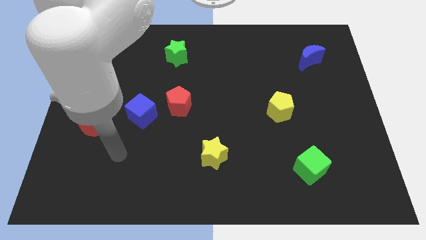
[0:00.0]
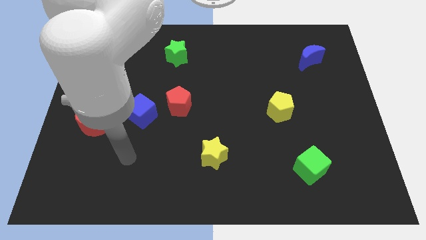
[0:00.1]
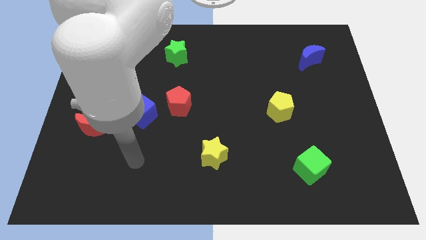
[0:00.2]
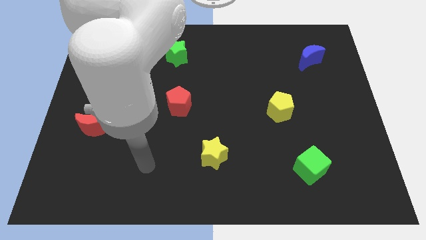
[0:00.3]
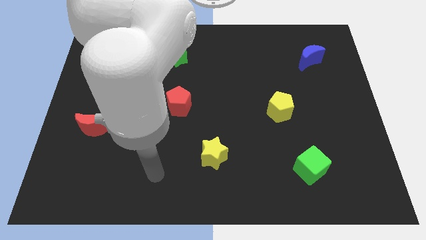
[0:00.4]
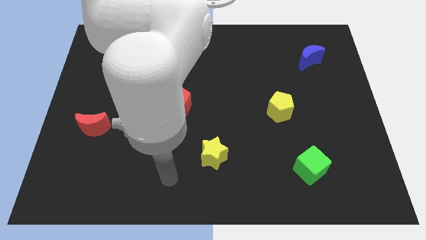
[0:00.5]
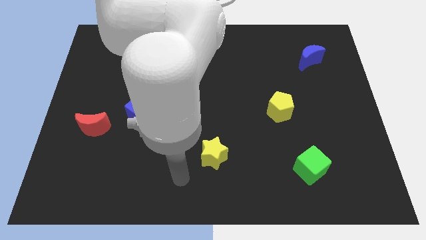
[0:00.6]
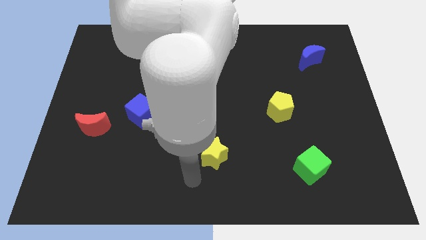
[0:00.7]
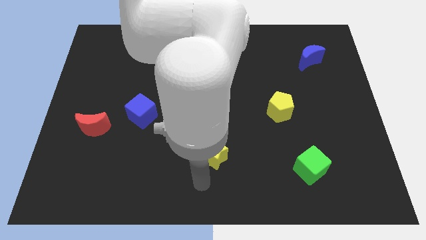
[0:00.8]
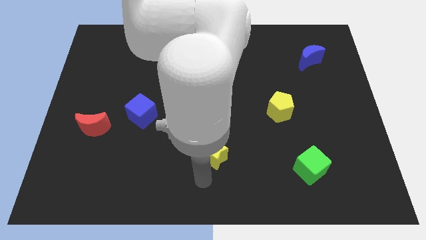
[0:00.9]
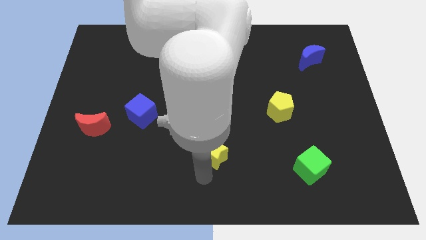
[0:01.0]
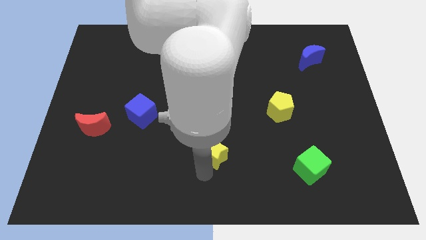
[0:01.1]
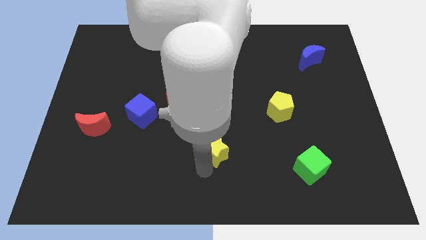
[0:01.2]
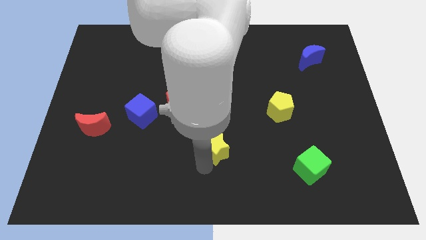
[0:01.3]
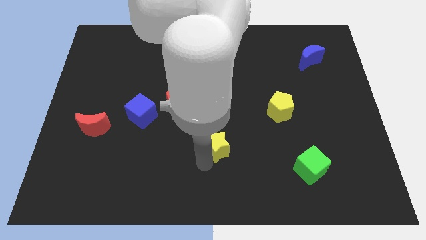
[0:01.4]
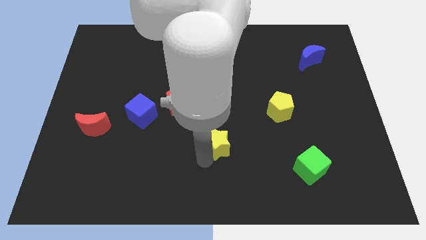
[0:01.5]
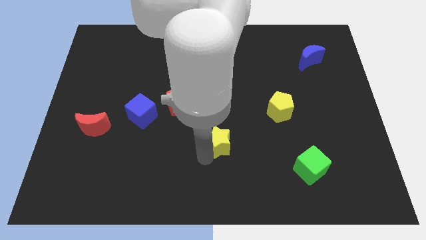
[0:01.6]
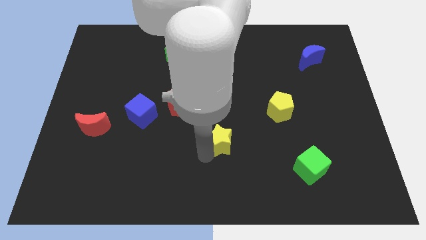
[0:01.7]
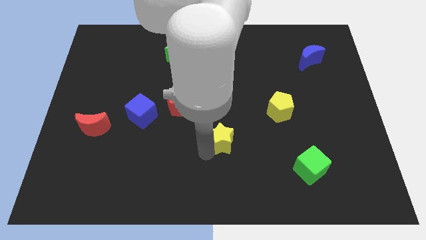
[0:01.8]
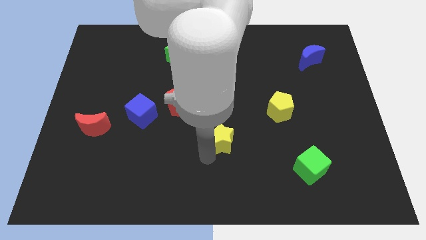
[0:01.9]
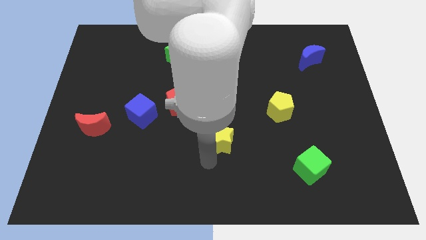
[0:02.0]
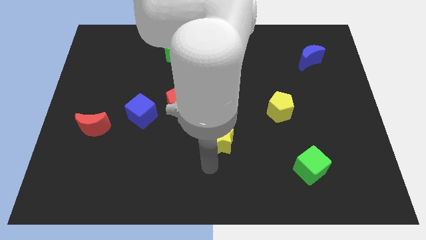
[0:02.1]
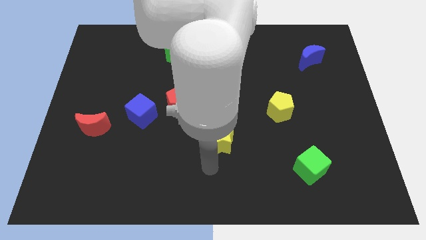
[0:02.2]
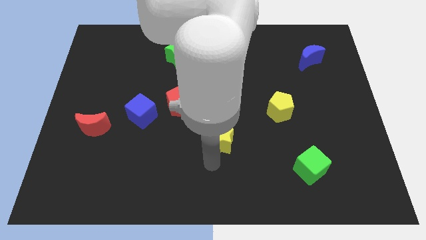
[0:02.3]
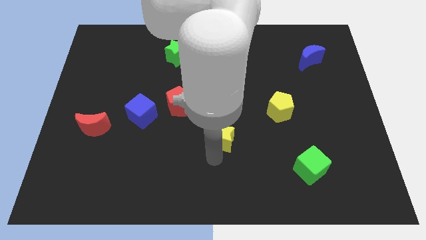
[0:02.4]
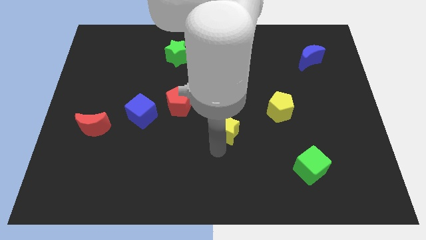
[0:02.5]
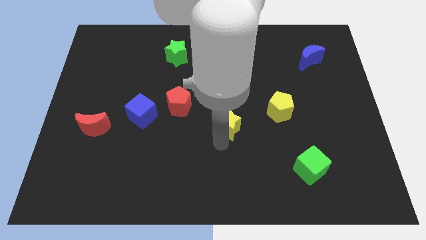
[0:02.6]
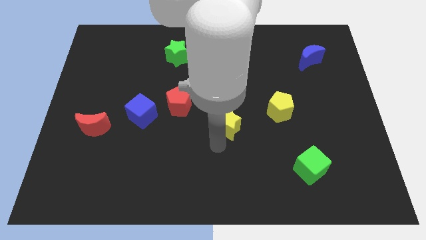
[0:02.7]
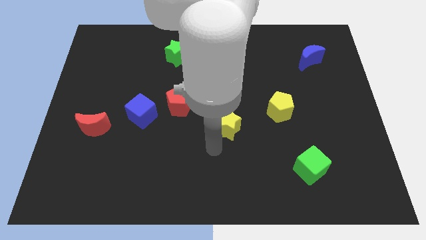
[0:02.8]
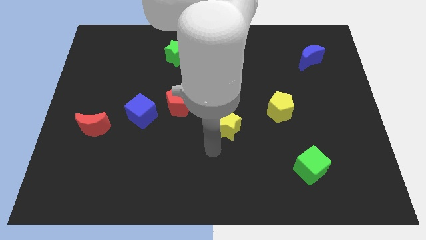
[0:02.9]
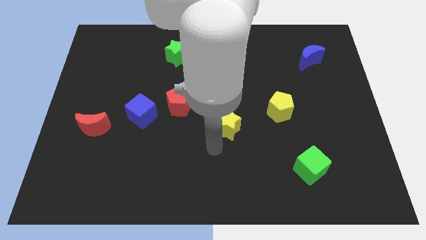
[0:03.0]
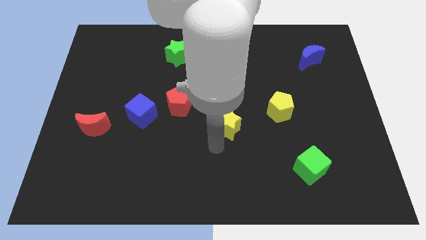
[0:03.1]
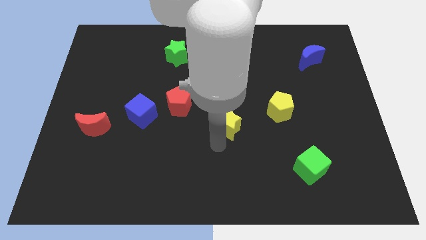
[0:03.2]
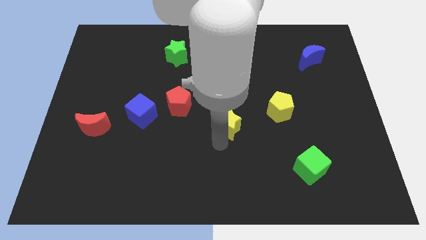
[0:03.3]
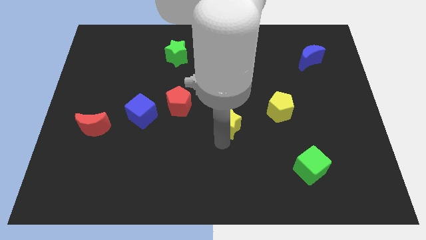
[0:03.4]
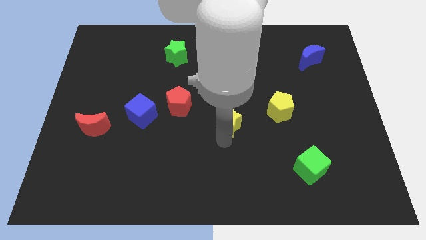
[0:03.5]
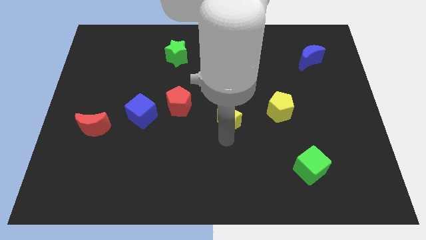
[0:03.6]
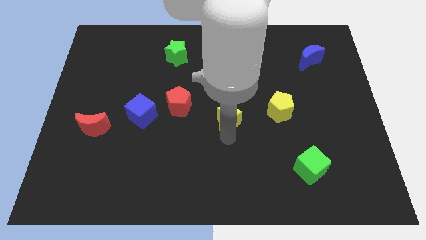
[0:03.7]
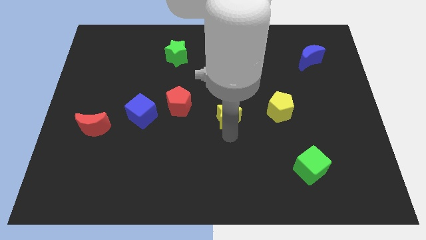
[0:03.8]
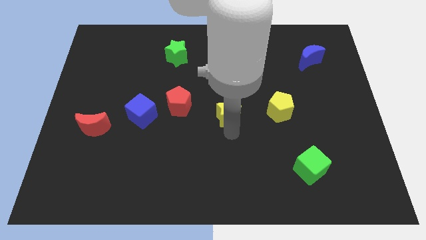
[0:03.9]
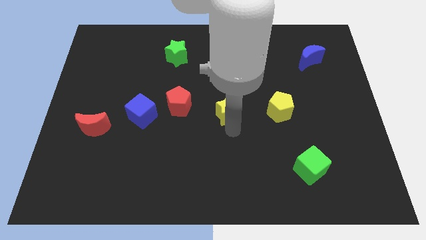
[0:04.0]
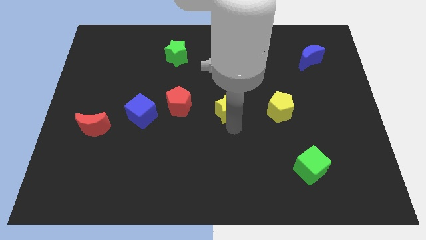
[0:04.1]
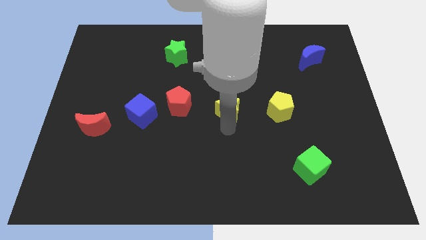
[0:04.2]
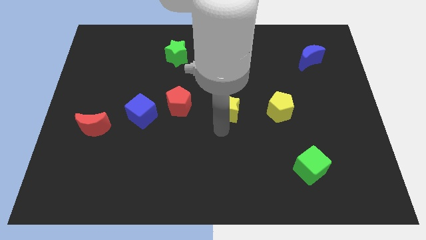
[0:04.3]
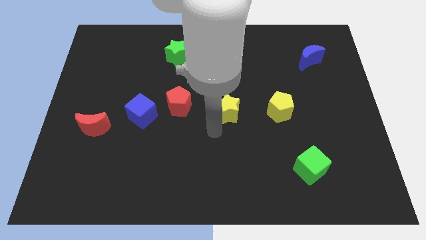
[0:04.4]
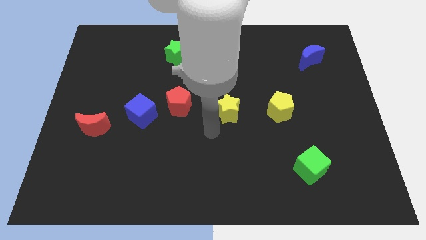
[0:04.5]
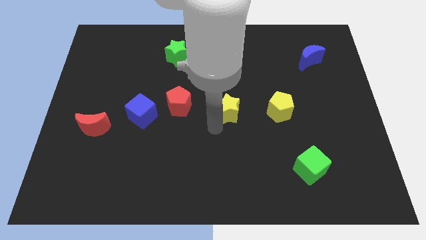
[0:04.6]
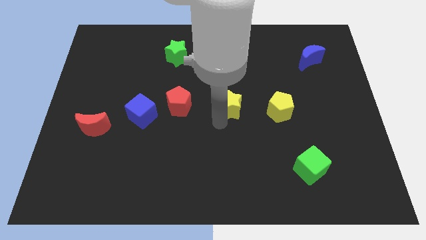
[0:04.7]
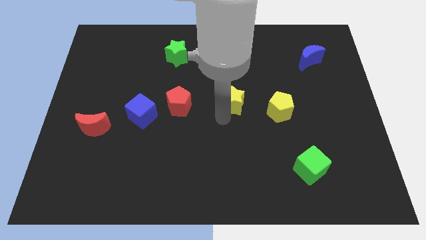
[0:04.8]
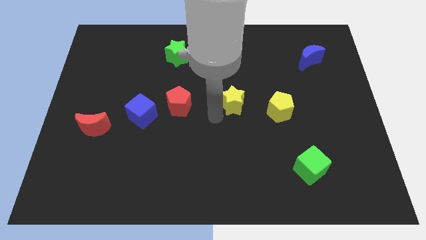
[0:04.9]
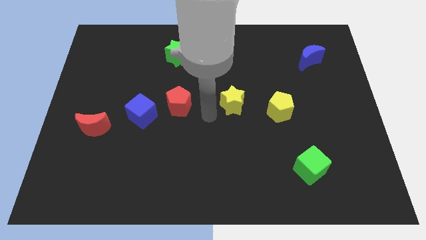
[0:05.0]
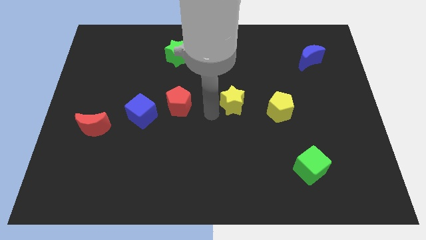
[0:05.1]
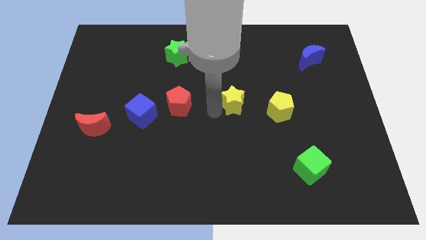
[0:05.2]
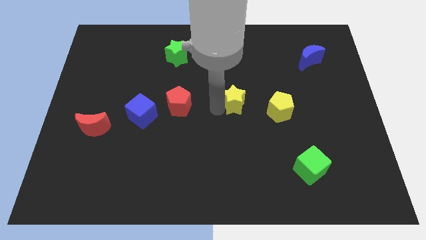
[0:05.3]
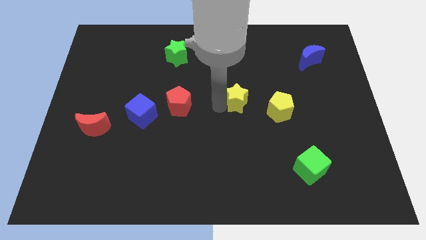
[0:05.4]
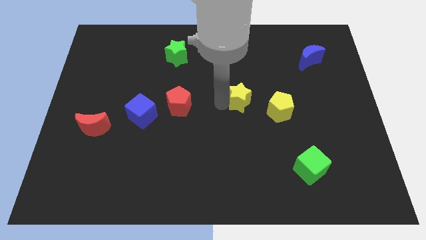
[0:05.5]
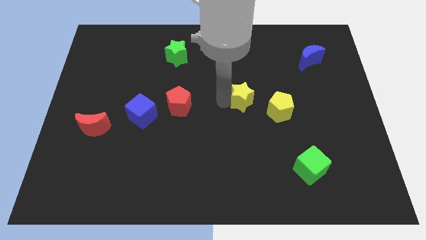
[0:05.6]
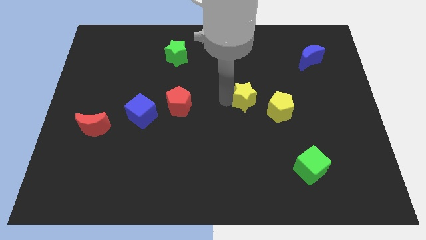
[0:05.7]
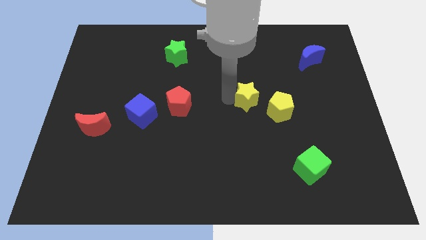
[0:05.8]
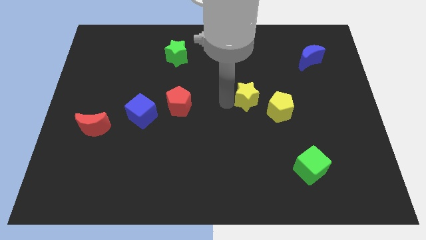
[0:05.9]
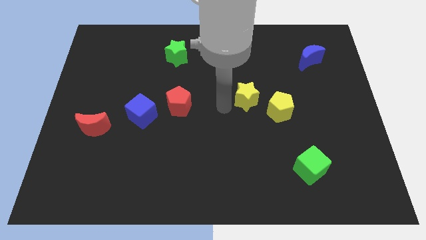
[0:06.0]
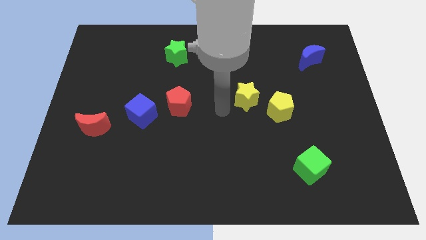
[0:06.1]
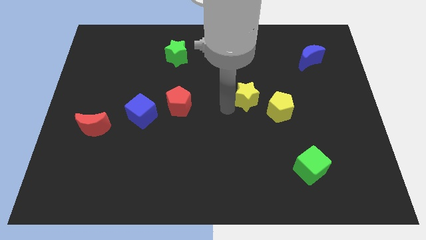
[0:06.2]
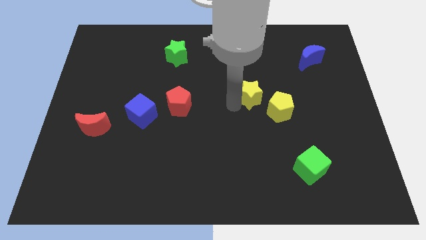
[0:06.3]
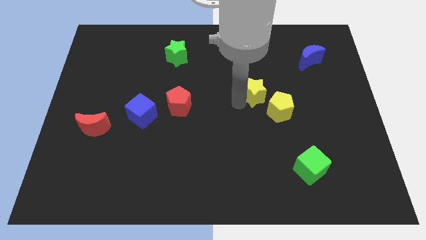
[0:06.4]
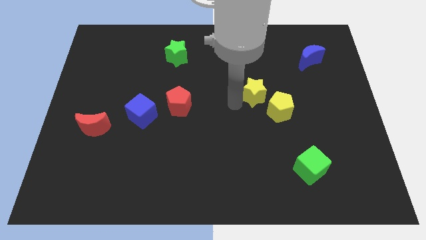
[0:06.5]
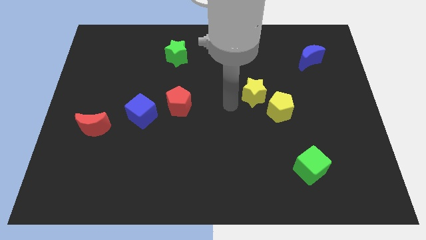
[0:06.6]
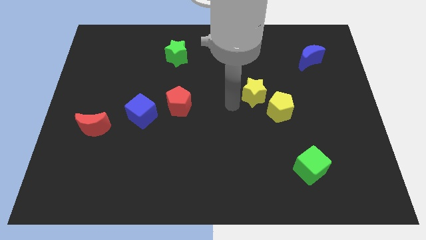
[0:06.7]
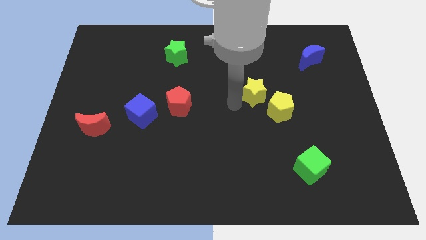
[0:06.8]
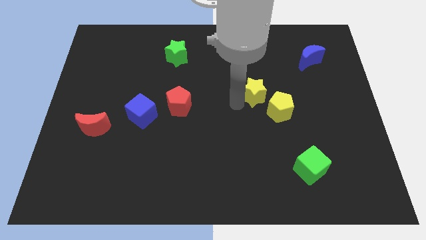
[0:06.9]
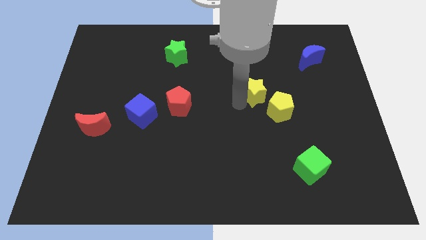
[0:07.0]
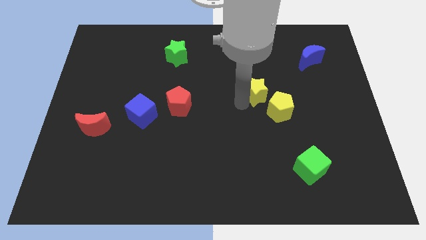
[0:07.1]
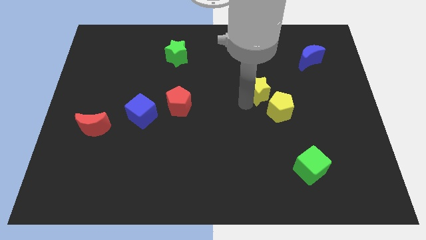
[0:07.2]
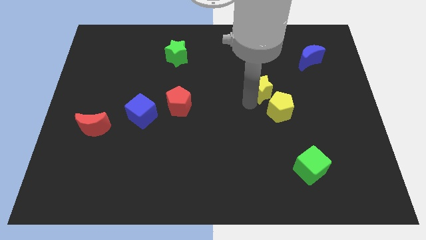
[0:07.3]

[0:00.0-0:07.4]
move the yellow star diagonally up and to the right

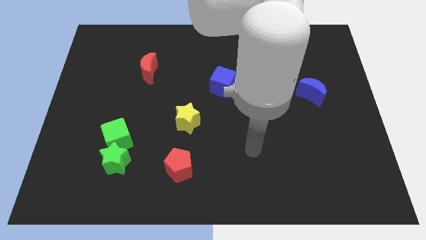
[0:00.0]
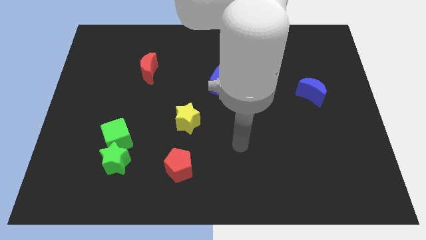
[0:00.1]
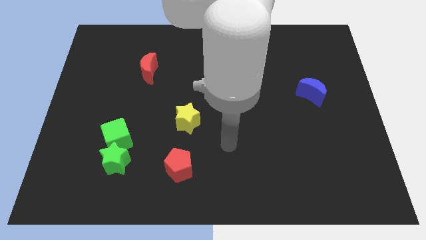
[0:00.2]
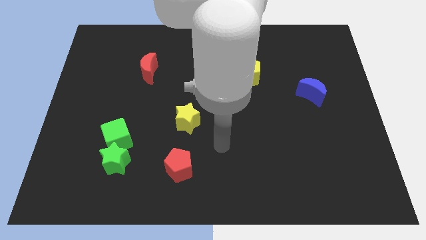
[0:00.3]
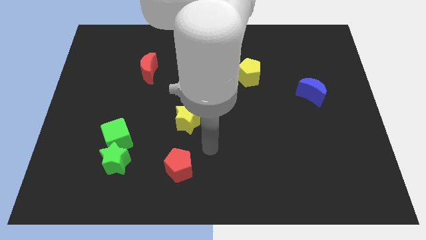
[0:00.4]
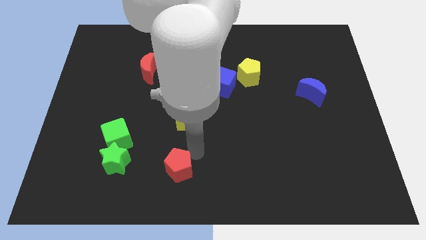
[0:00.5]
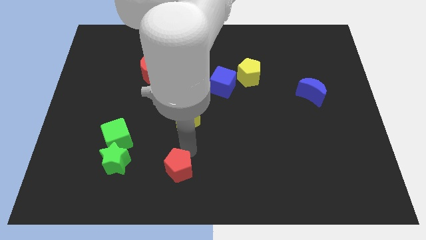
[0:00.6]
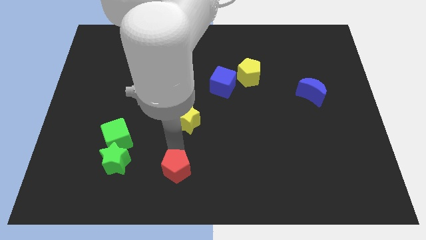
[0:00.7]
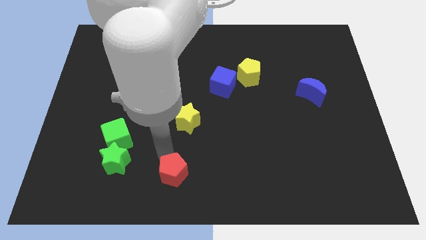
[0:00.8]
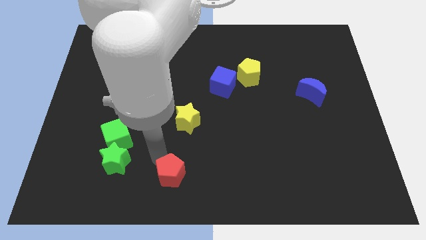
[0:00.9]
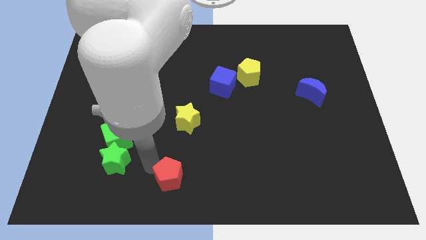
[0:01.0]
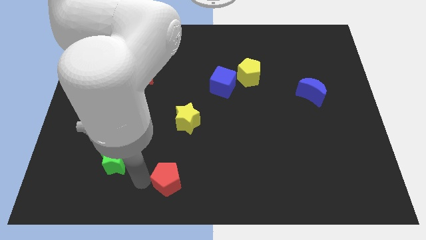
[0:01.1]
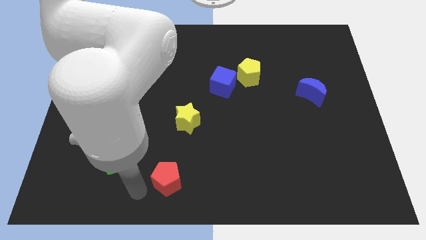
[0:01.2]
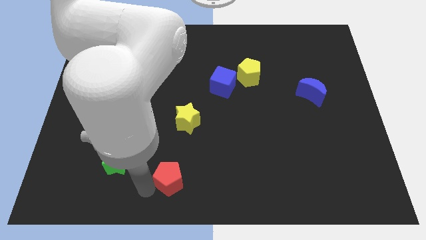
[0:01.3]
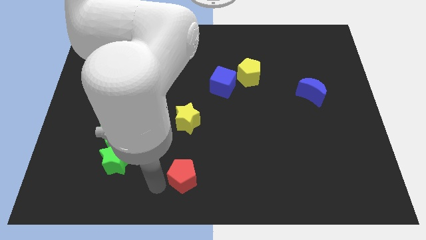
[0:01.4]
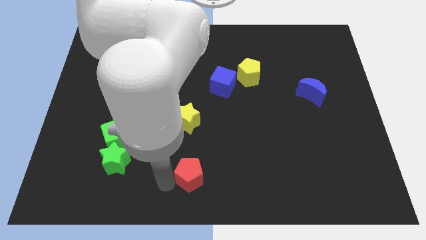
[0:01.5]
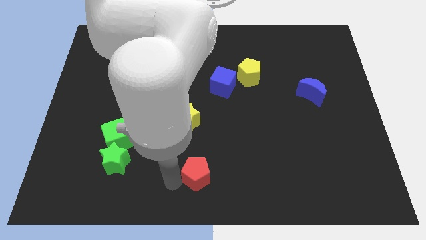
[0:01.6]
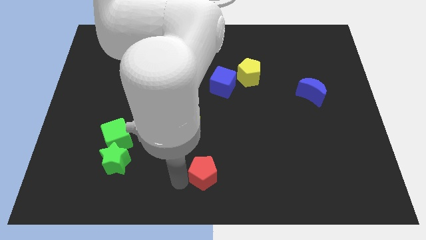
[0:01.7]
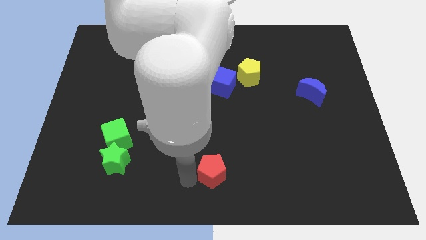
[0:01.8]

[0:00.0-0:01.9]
slide the red pentagon a little to the right
